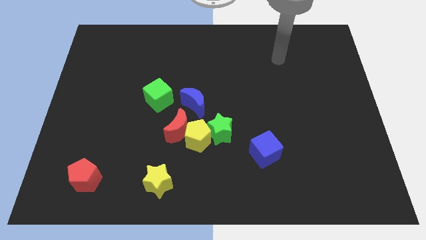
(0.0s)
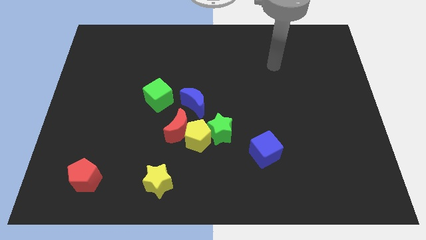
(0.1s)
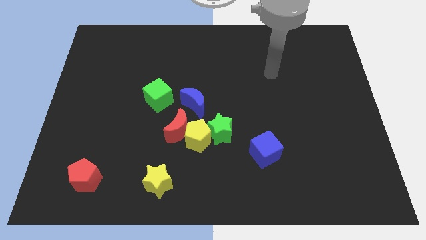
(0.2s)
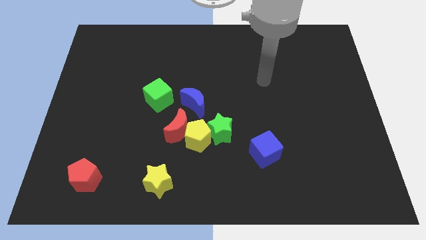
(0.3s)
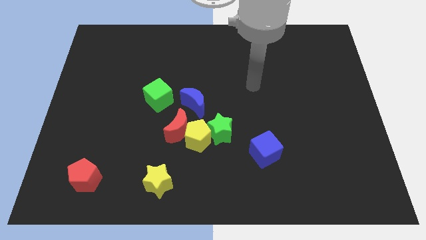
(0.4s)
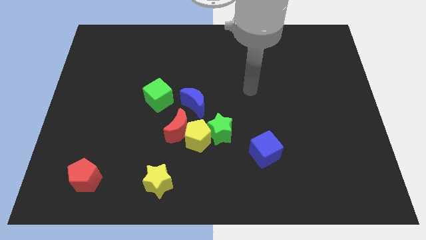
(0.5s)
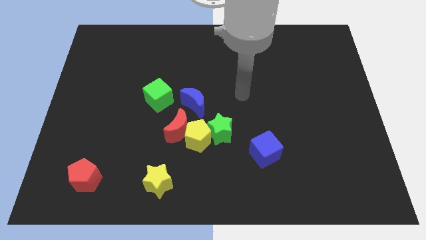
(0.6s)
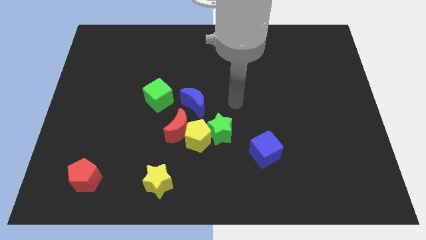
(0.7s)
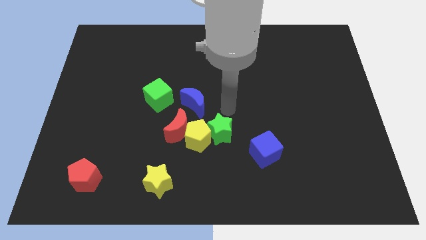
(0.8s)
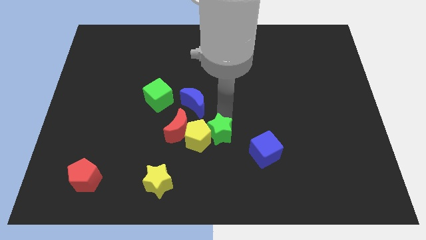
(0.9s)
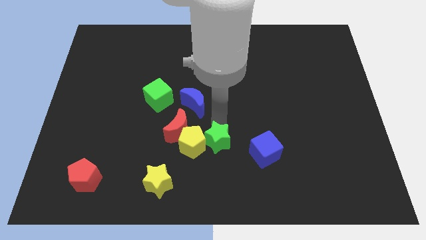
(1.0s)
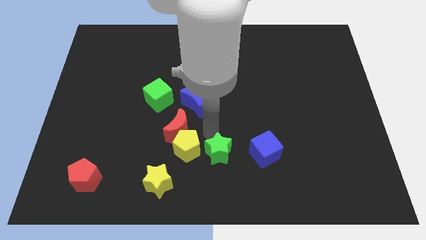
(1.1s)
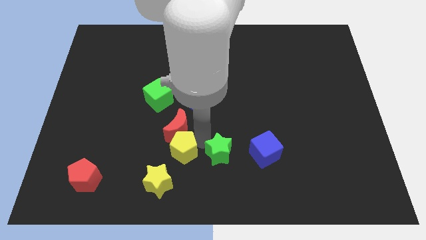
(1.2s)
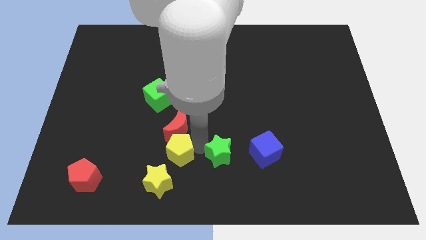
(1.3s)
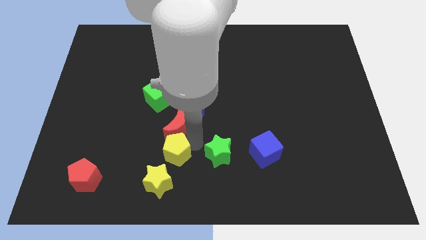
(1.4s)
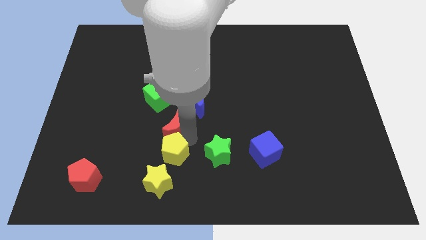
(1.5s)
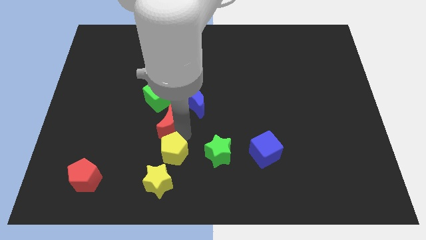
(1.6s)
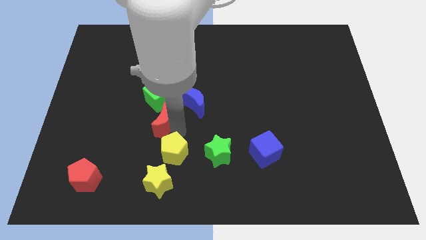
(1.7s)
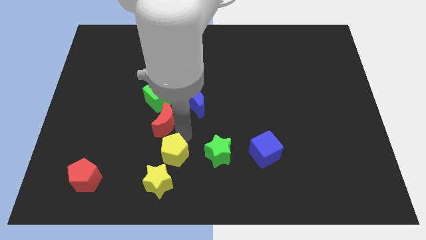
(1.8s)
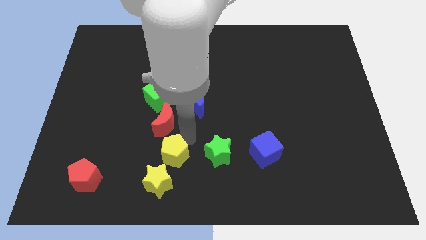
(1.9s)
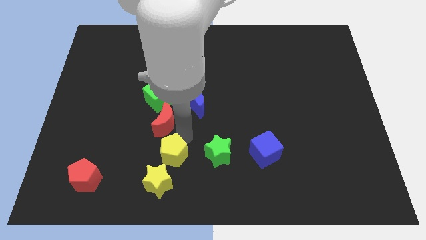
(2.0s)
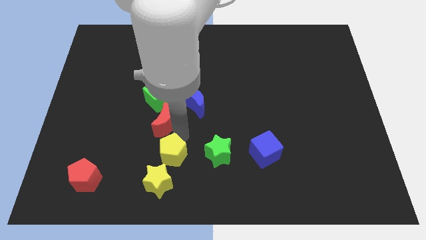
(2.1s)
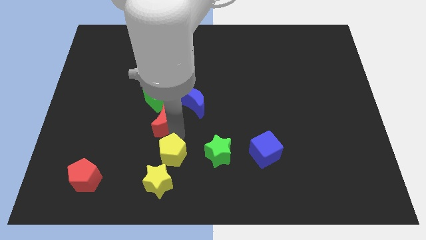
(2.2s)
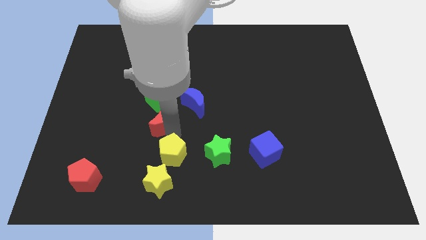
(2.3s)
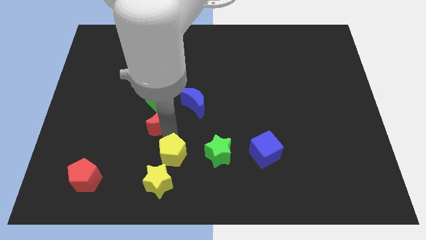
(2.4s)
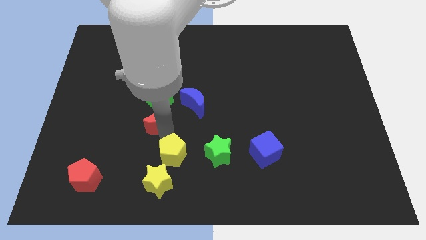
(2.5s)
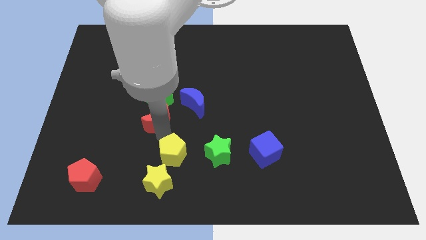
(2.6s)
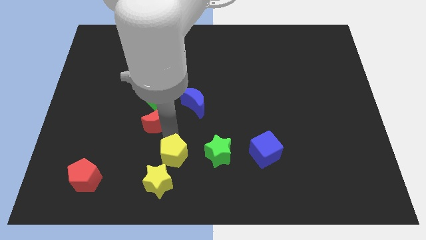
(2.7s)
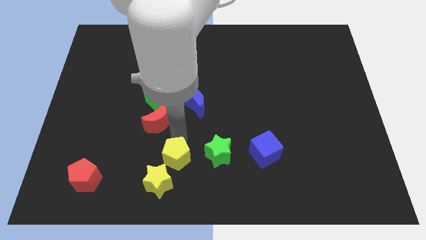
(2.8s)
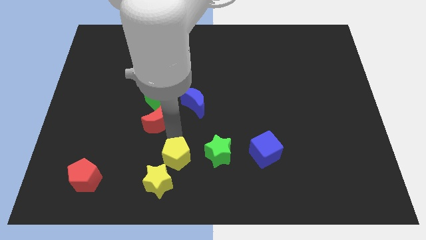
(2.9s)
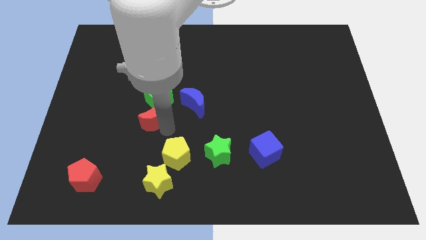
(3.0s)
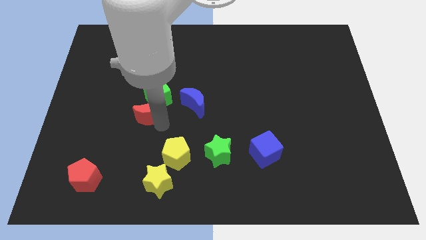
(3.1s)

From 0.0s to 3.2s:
slightly push the red moon upwards and to the left

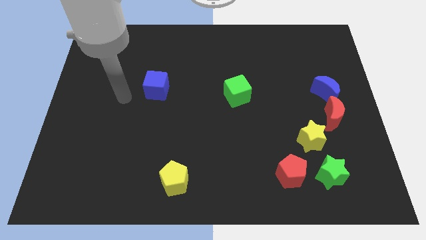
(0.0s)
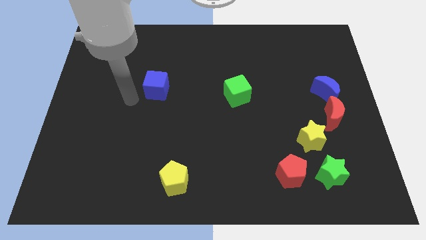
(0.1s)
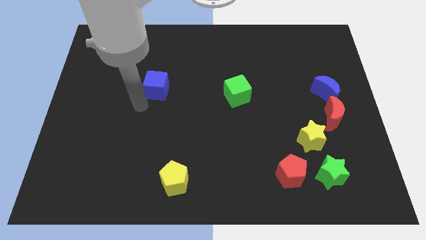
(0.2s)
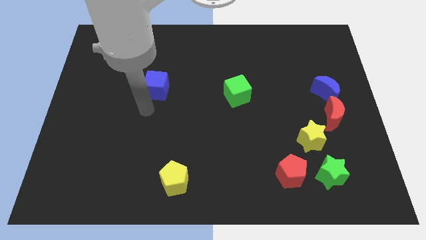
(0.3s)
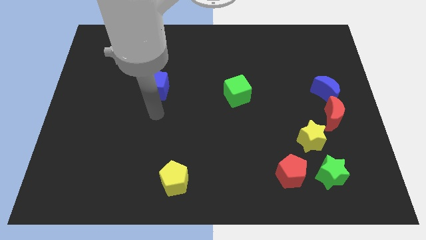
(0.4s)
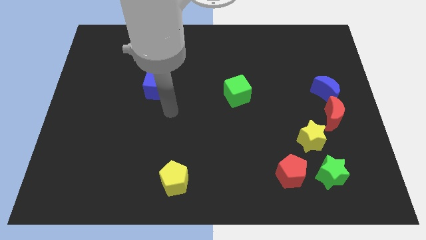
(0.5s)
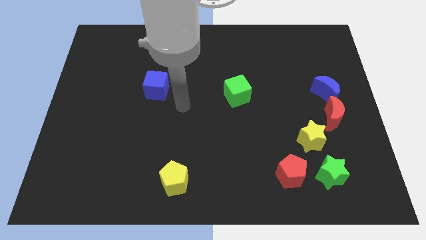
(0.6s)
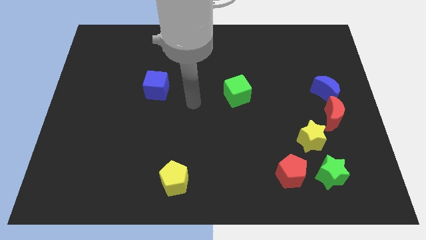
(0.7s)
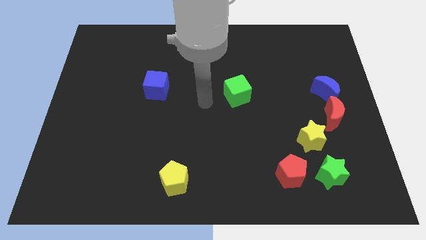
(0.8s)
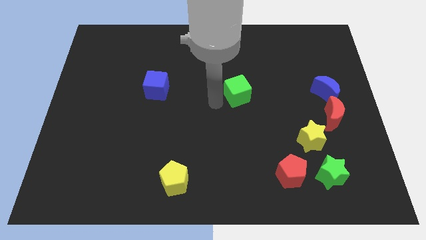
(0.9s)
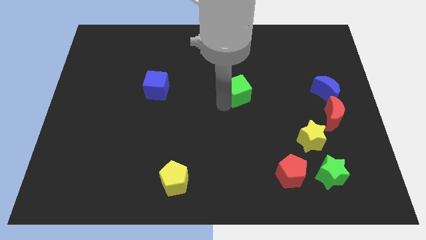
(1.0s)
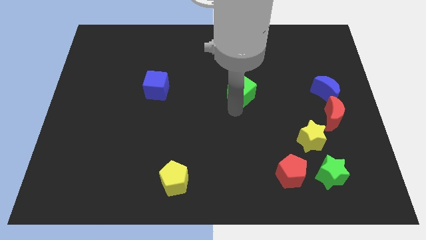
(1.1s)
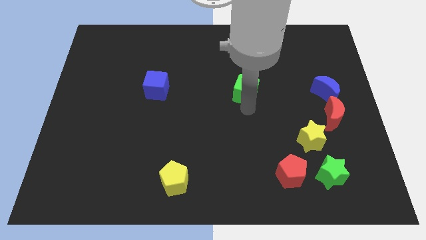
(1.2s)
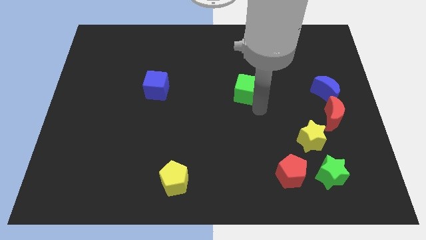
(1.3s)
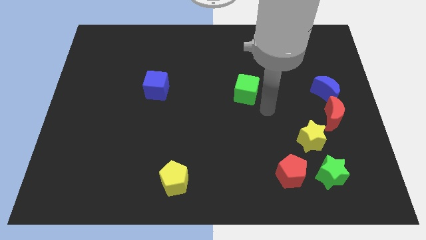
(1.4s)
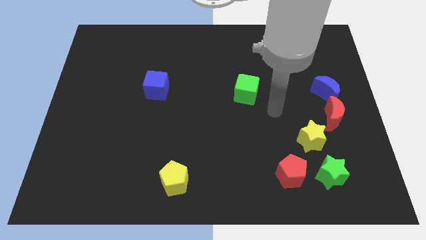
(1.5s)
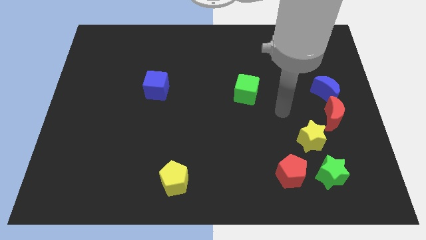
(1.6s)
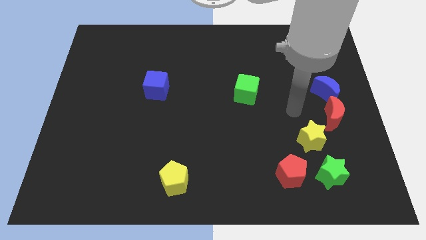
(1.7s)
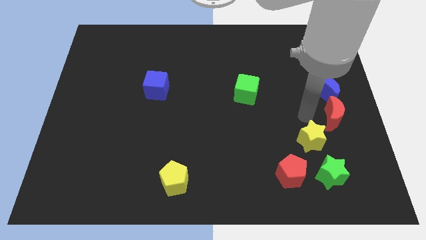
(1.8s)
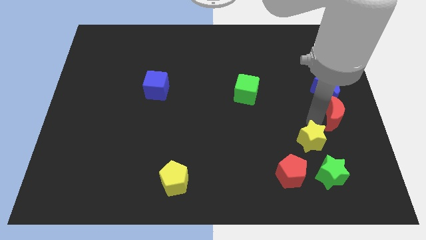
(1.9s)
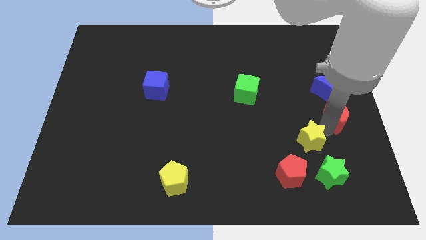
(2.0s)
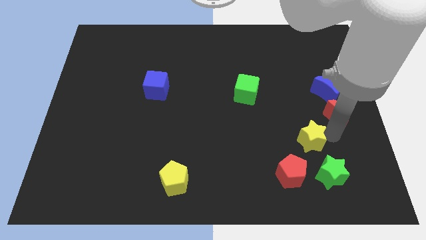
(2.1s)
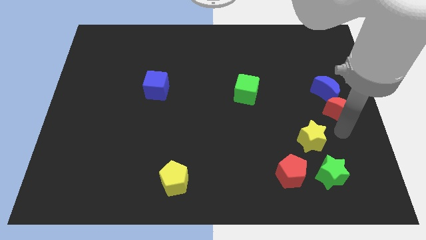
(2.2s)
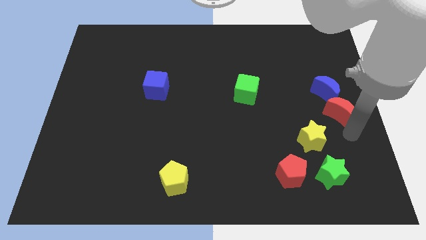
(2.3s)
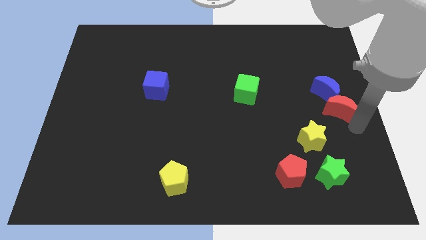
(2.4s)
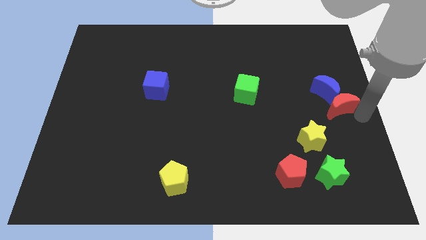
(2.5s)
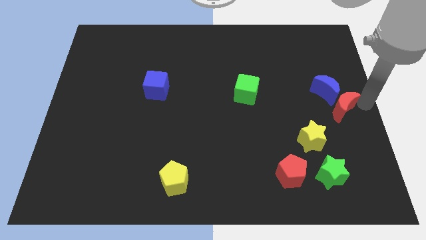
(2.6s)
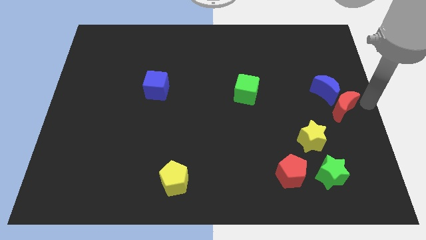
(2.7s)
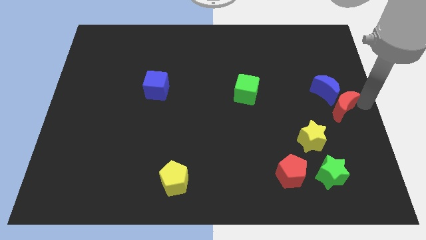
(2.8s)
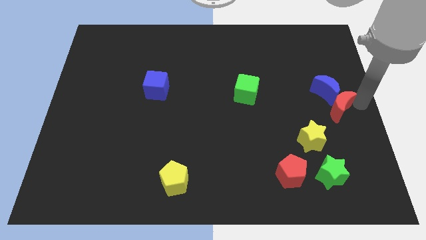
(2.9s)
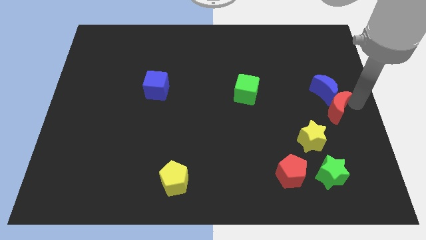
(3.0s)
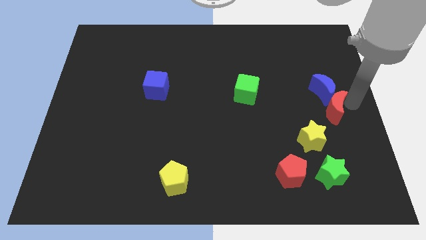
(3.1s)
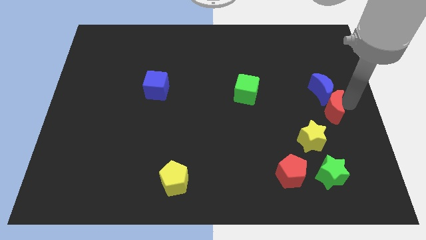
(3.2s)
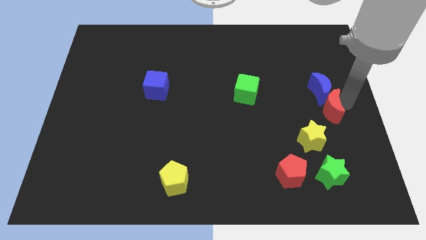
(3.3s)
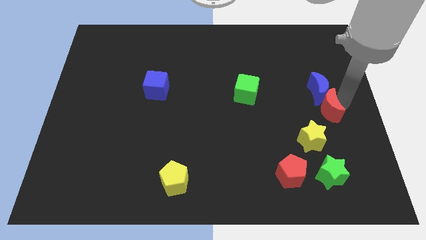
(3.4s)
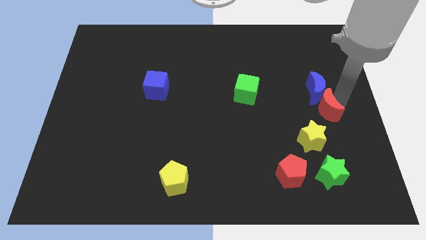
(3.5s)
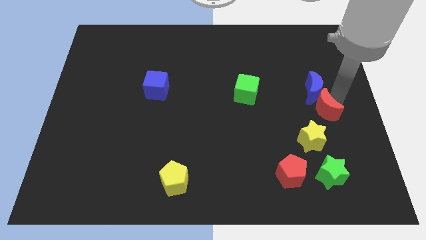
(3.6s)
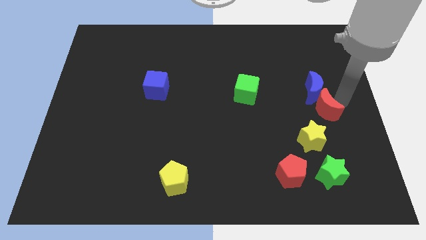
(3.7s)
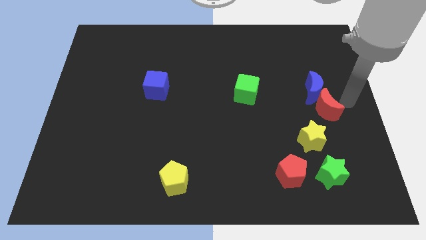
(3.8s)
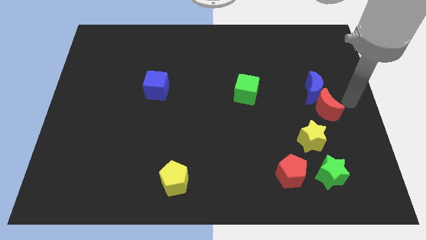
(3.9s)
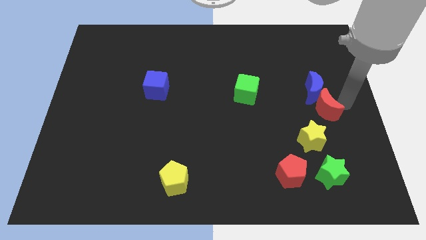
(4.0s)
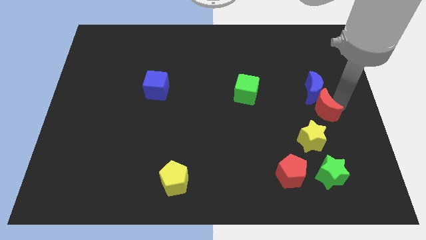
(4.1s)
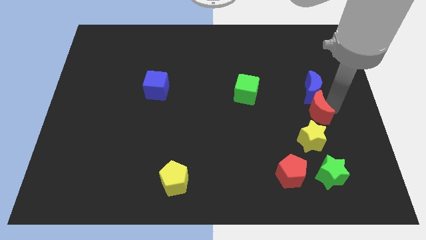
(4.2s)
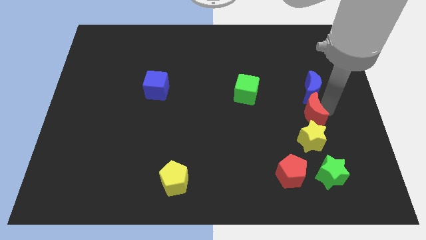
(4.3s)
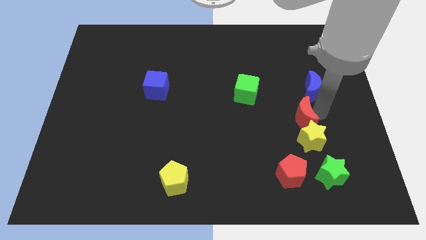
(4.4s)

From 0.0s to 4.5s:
slightly push the red moon to the left

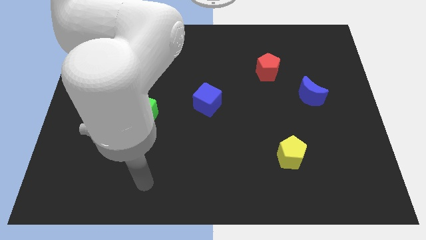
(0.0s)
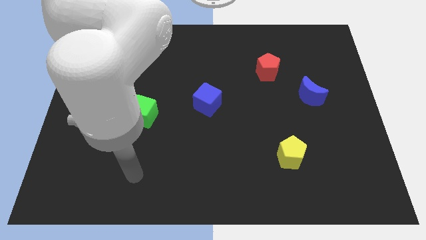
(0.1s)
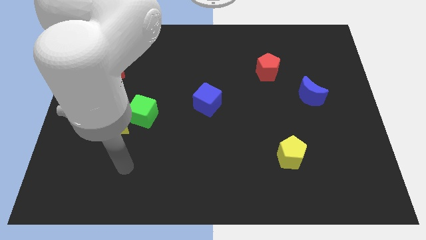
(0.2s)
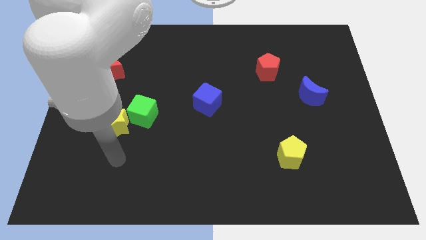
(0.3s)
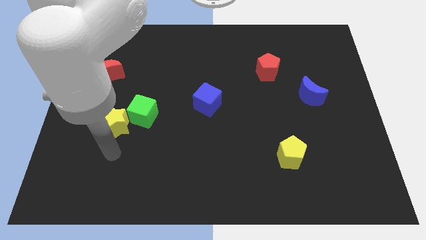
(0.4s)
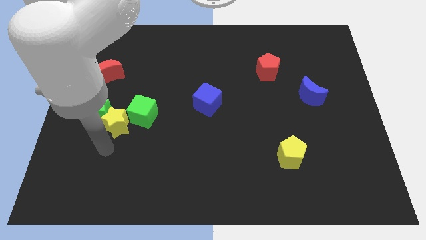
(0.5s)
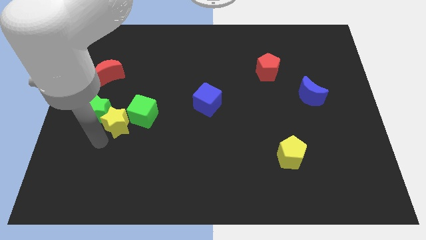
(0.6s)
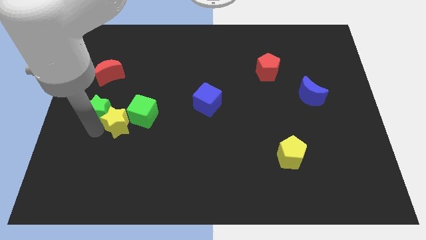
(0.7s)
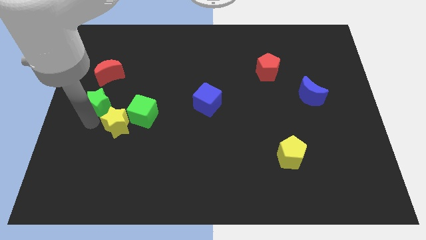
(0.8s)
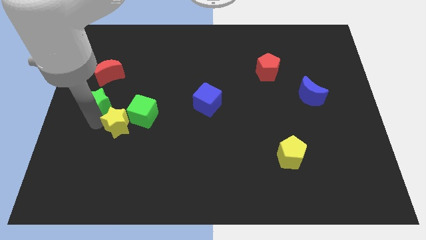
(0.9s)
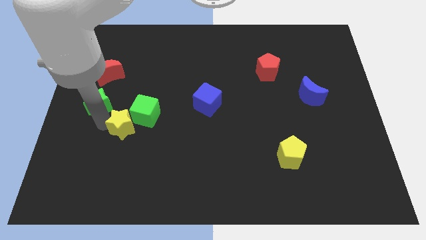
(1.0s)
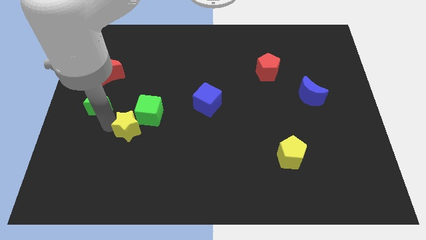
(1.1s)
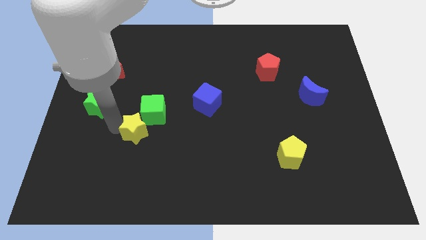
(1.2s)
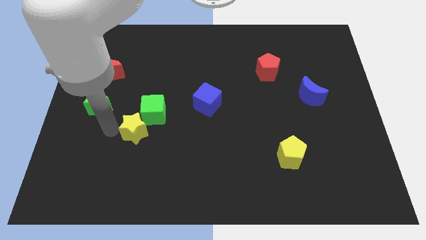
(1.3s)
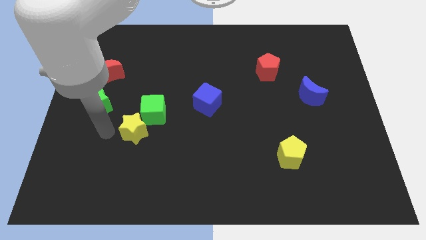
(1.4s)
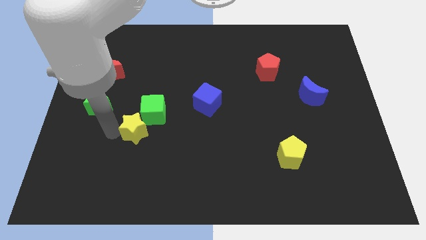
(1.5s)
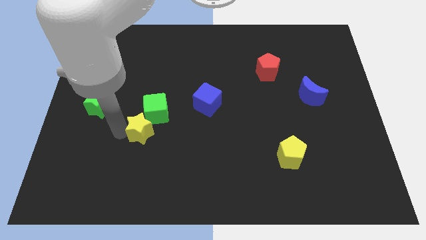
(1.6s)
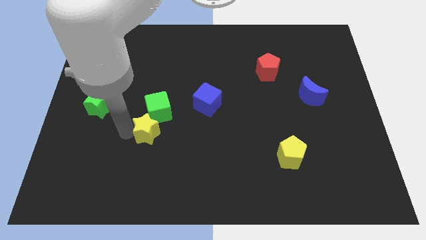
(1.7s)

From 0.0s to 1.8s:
slide the yellow star a little right
